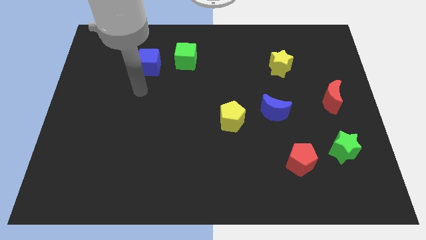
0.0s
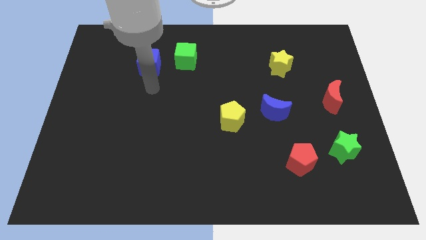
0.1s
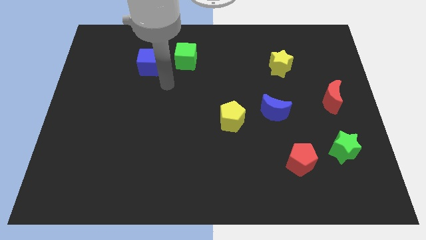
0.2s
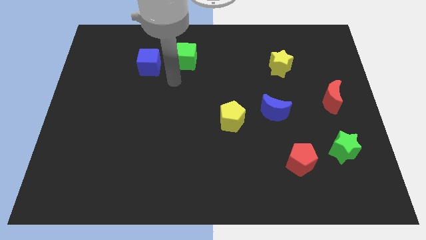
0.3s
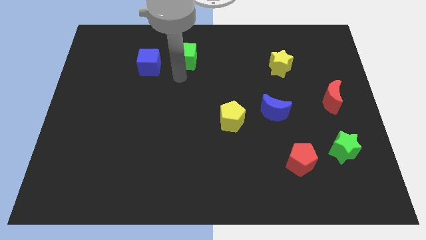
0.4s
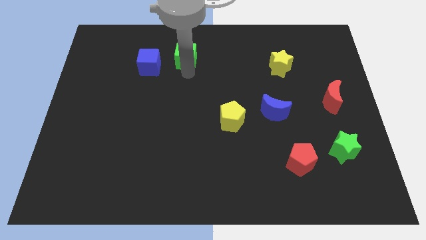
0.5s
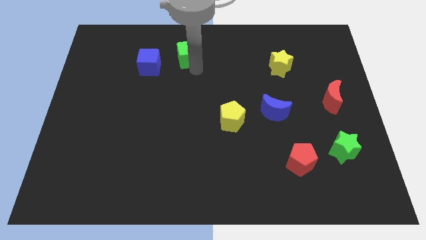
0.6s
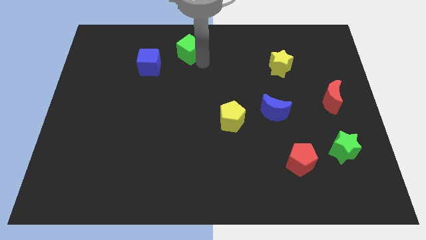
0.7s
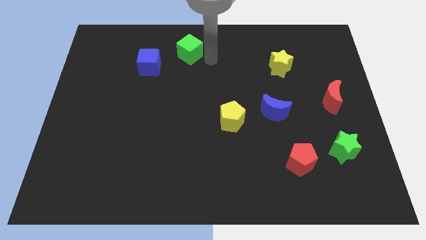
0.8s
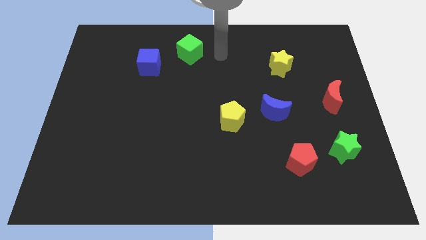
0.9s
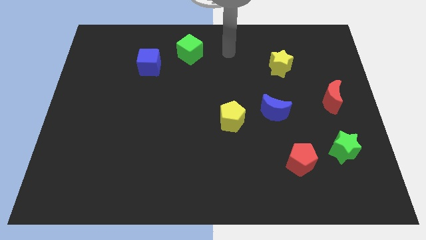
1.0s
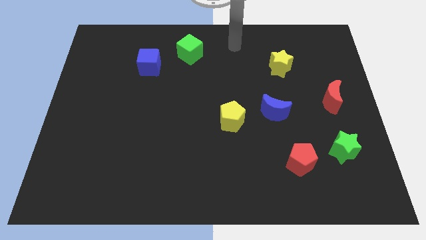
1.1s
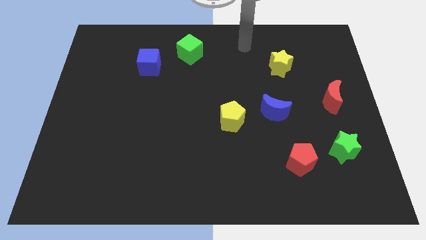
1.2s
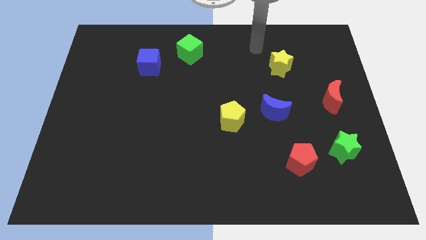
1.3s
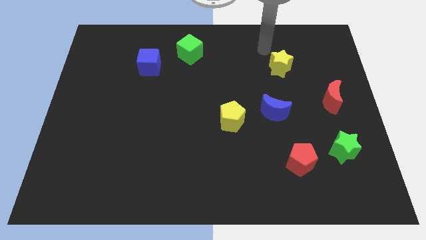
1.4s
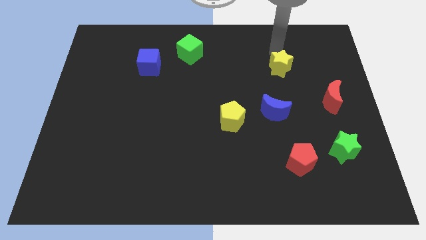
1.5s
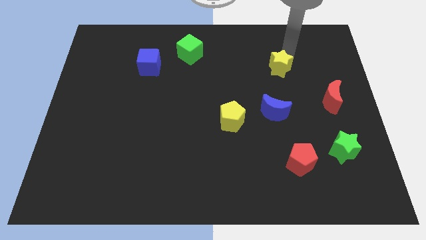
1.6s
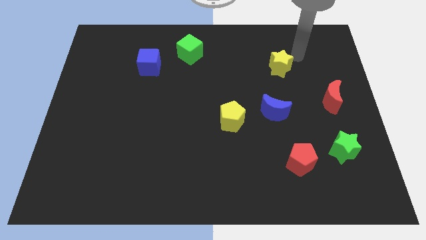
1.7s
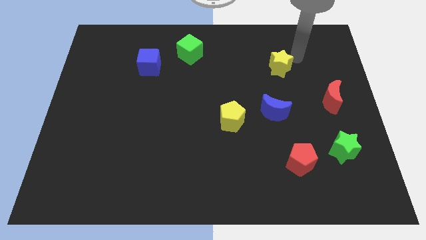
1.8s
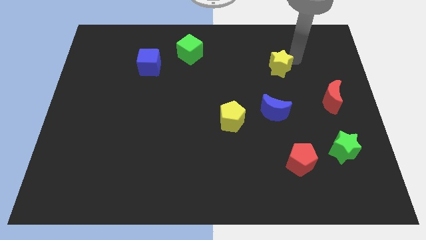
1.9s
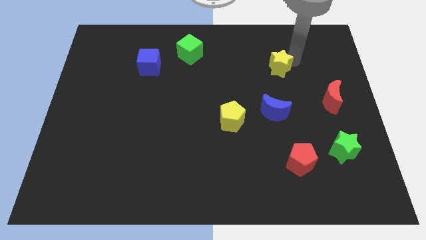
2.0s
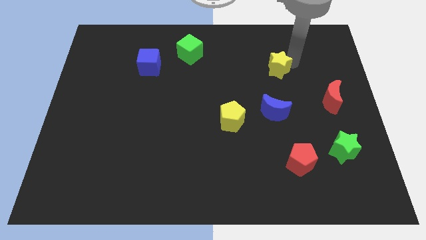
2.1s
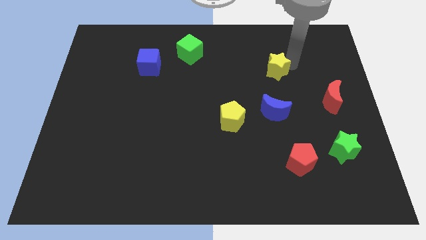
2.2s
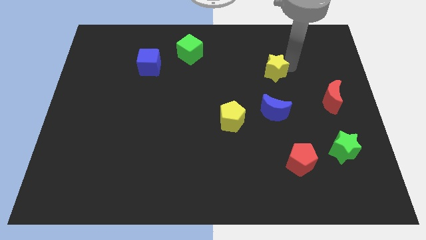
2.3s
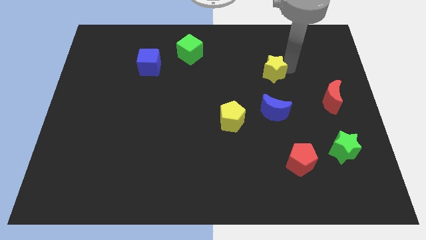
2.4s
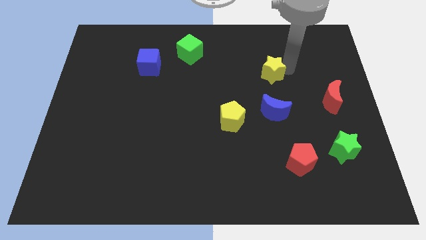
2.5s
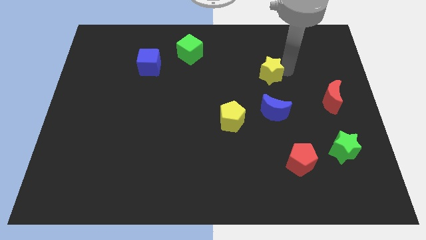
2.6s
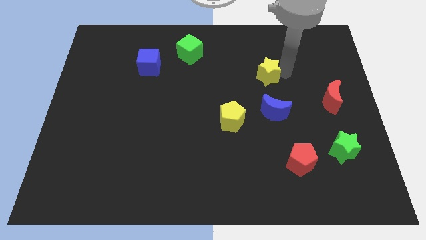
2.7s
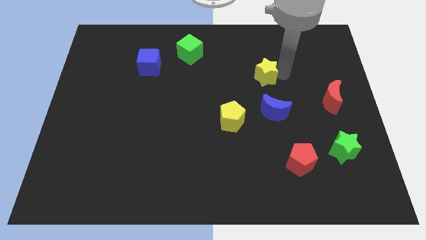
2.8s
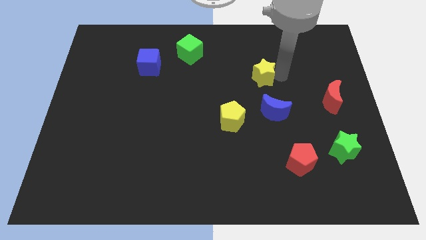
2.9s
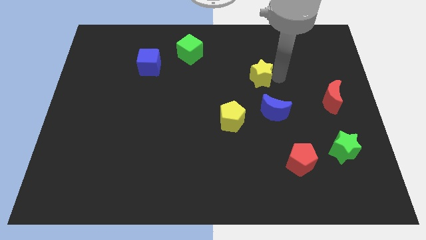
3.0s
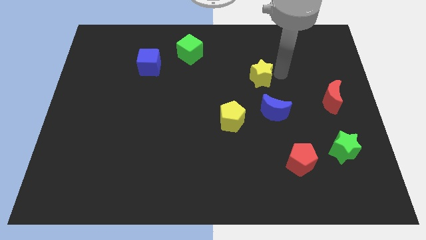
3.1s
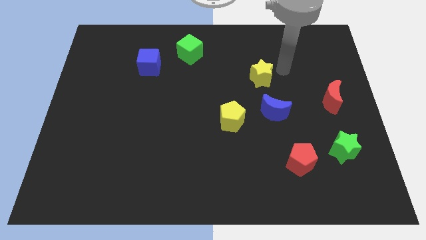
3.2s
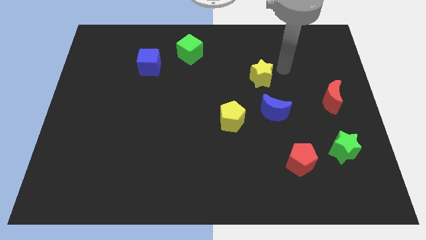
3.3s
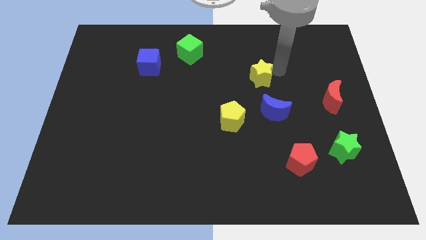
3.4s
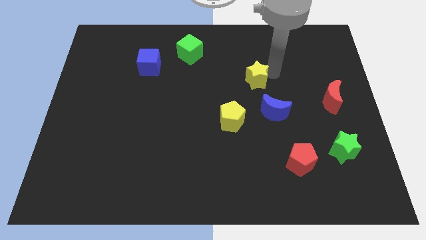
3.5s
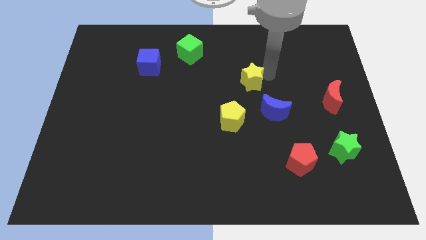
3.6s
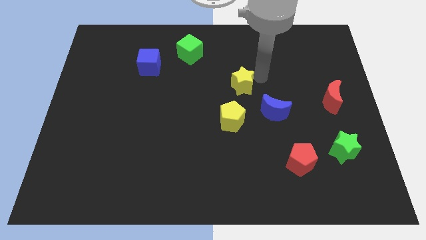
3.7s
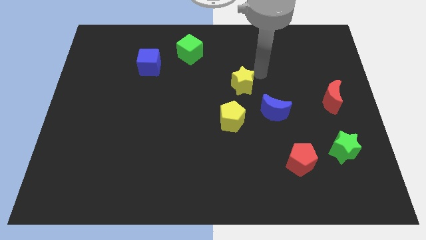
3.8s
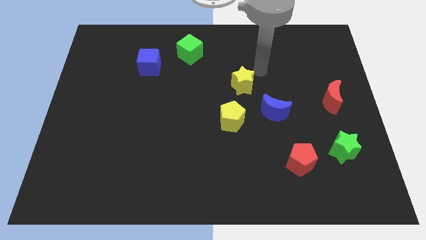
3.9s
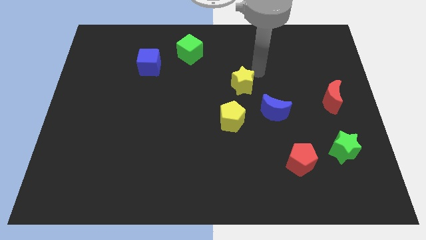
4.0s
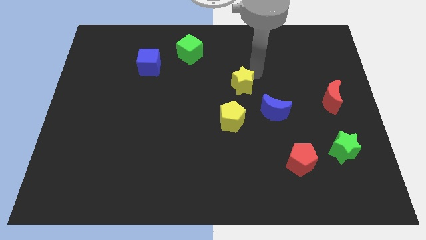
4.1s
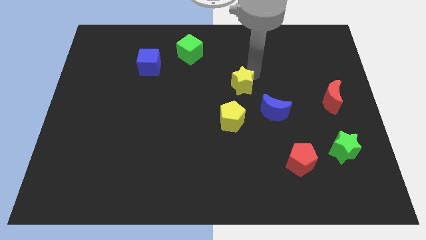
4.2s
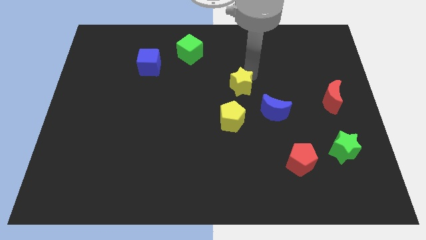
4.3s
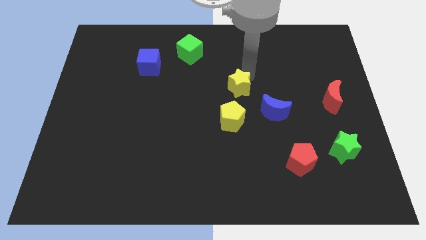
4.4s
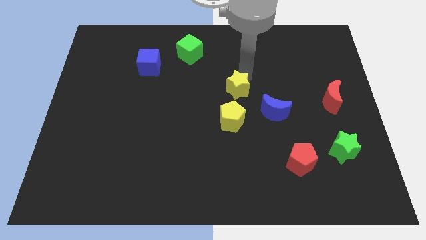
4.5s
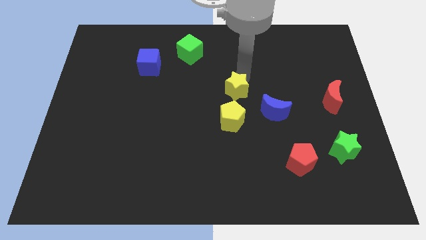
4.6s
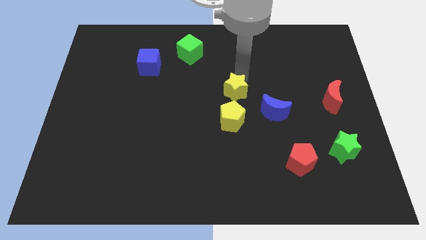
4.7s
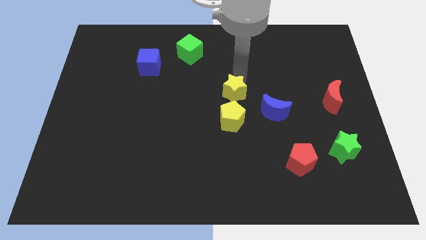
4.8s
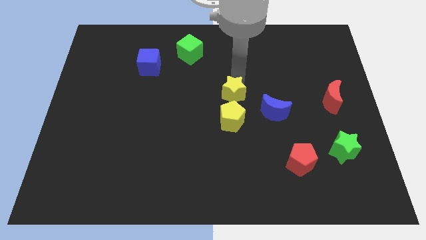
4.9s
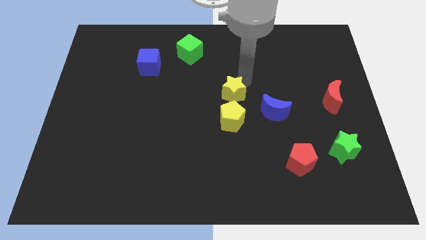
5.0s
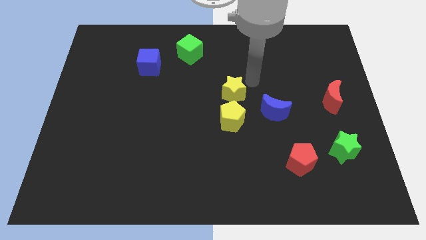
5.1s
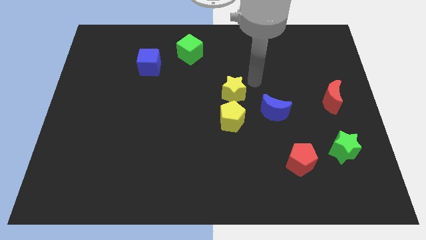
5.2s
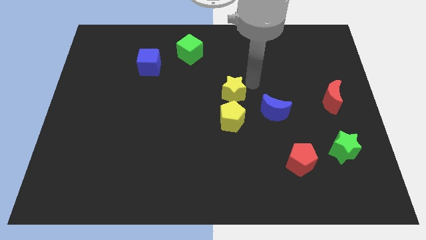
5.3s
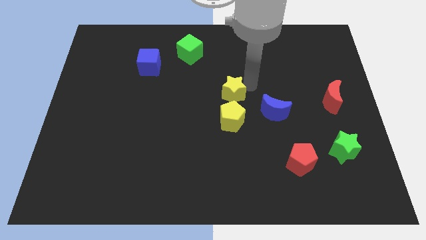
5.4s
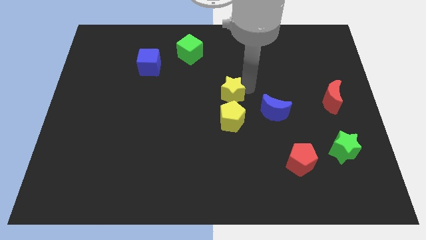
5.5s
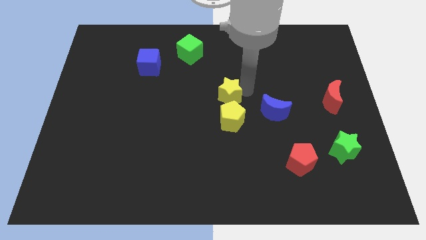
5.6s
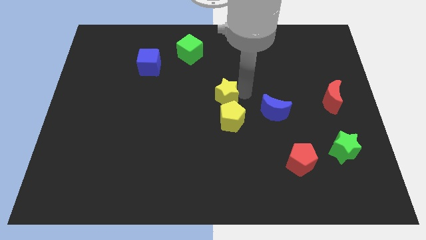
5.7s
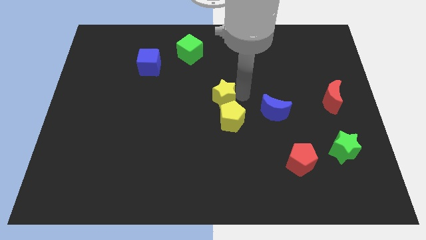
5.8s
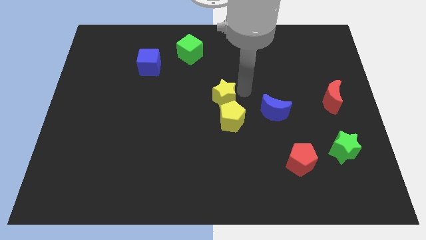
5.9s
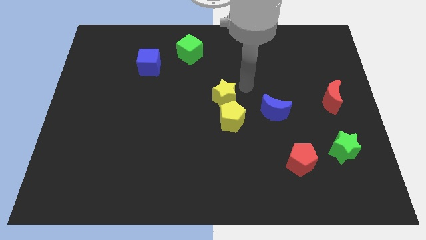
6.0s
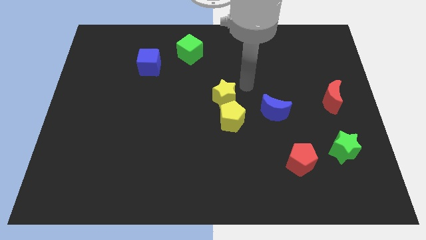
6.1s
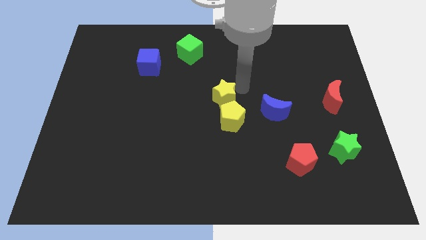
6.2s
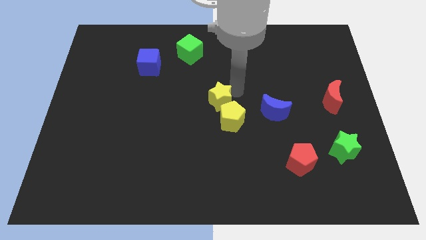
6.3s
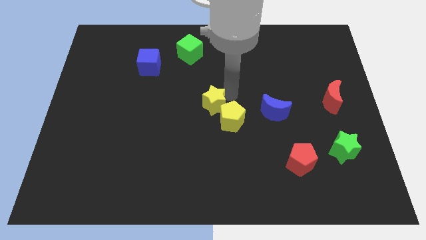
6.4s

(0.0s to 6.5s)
put the yellow star left of the yellow pentagon

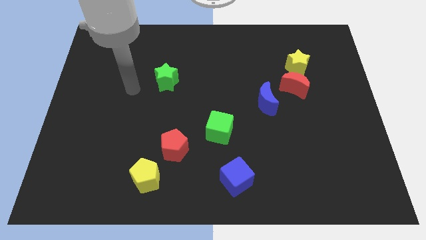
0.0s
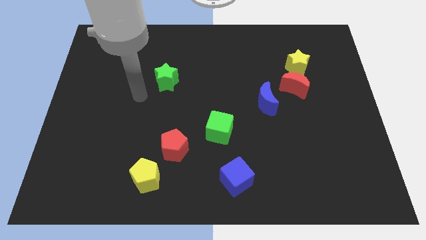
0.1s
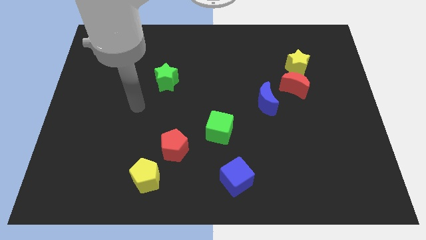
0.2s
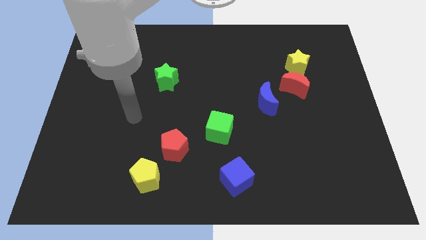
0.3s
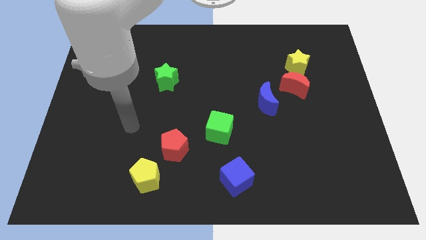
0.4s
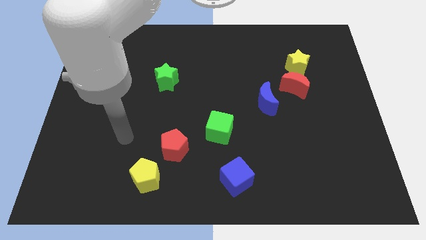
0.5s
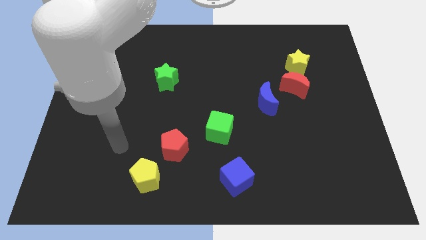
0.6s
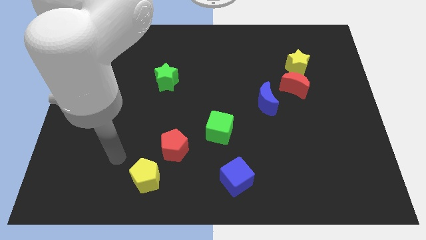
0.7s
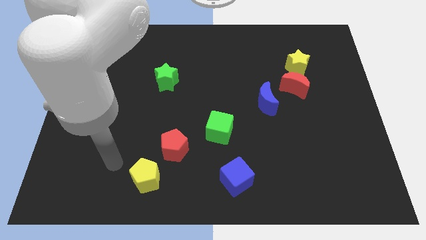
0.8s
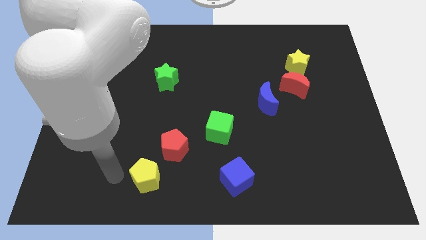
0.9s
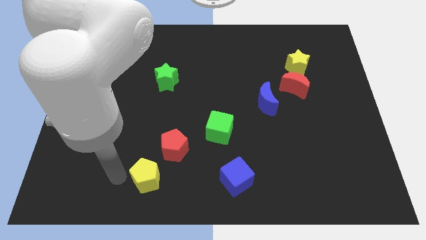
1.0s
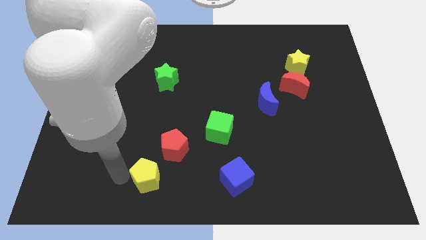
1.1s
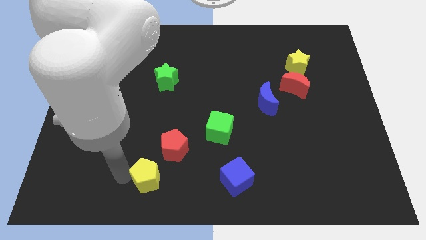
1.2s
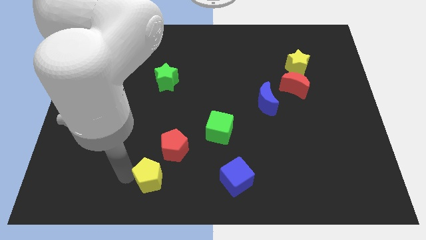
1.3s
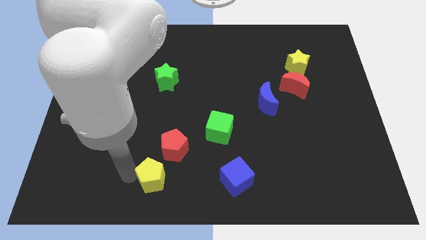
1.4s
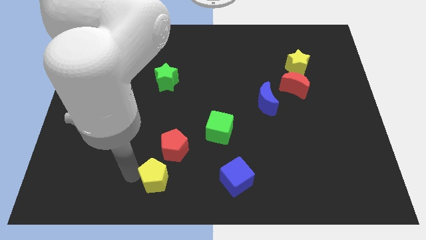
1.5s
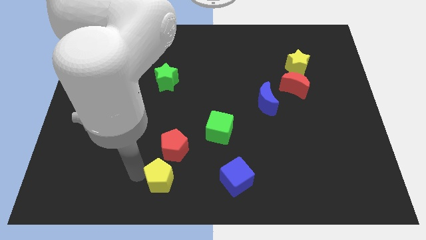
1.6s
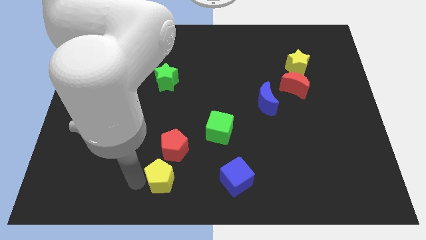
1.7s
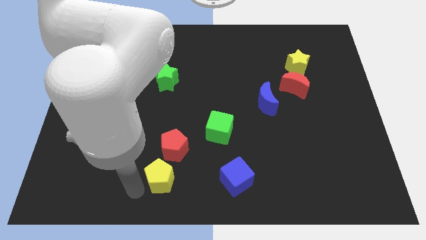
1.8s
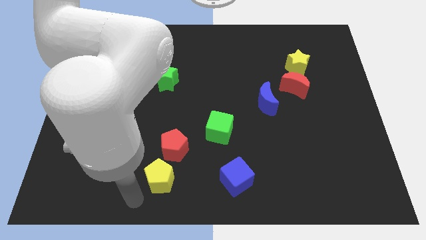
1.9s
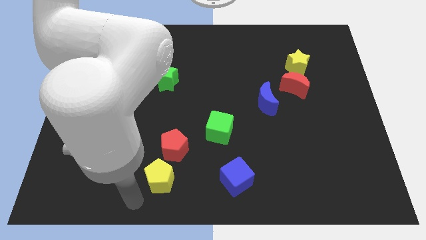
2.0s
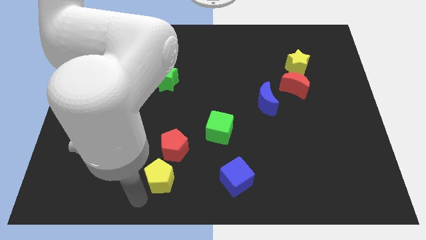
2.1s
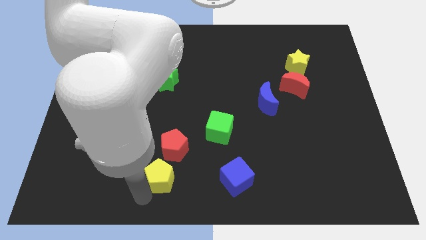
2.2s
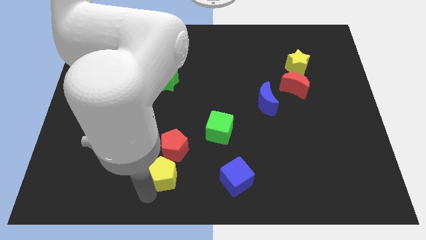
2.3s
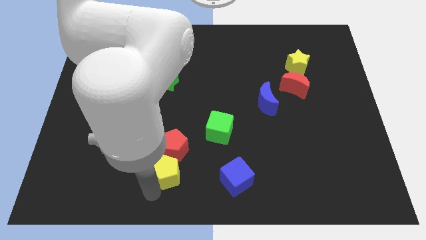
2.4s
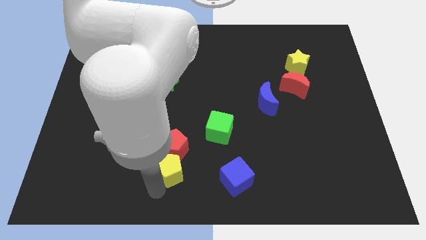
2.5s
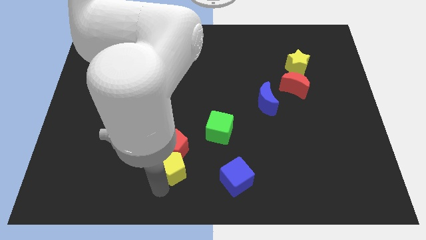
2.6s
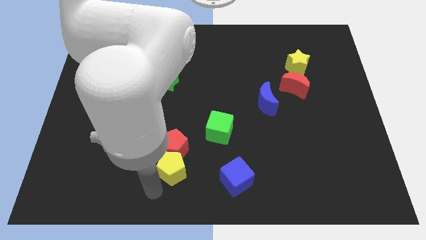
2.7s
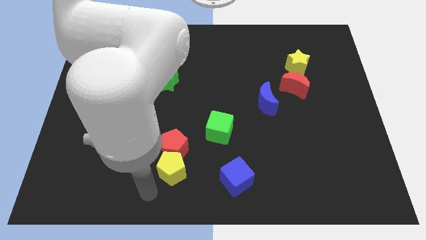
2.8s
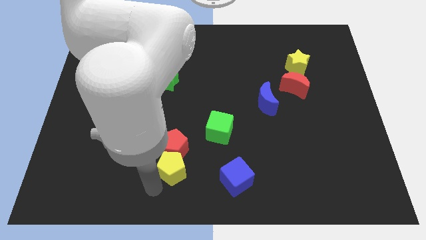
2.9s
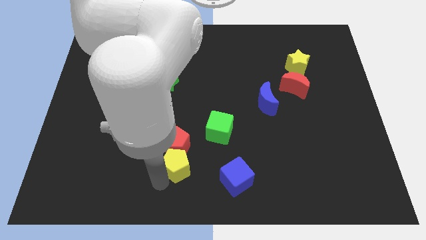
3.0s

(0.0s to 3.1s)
put the yellow pentagon to the bottom left side of the green cube
